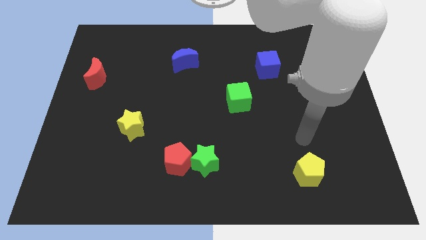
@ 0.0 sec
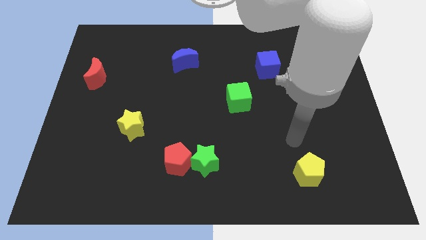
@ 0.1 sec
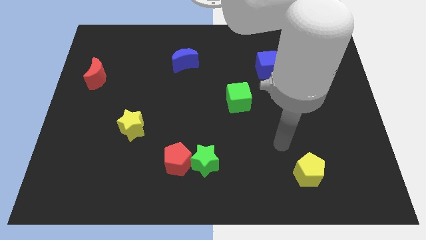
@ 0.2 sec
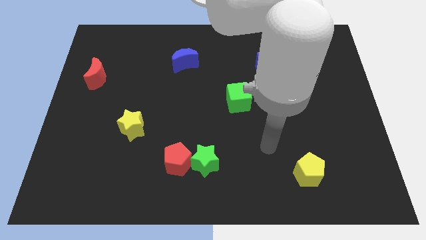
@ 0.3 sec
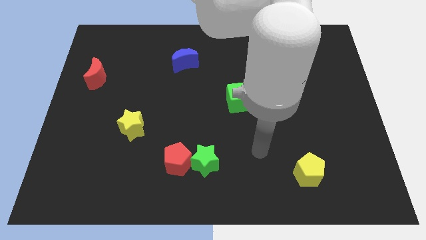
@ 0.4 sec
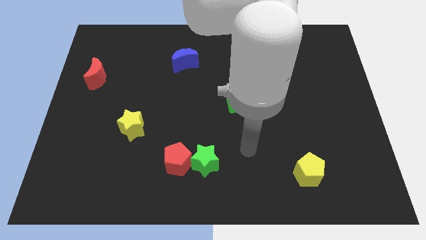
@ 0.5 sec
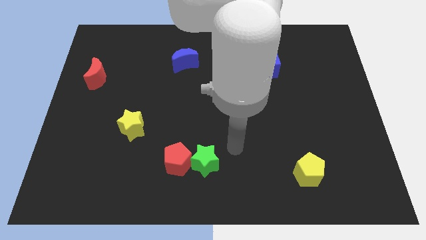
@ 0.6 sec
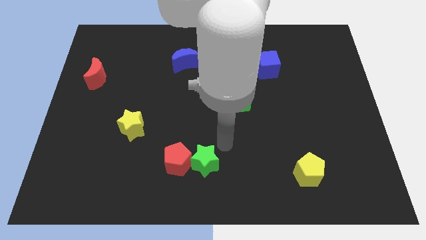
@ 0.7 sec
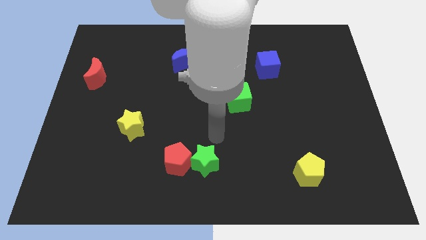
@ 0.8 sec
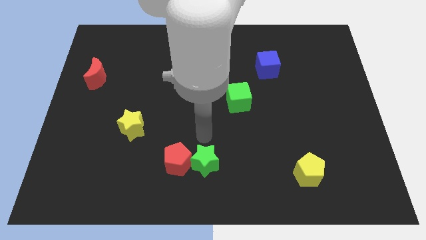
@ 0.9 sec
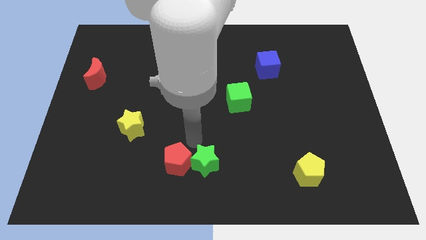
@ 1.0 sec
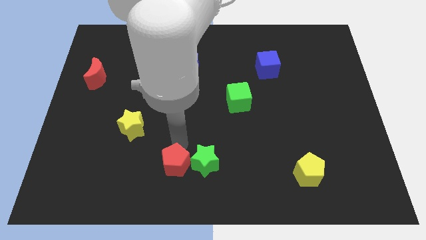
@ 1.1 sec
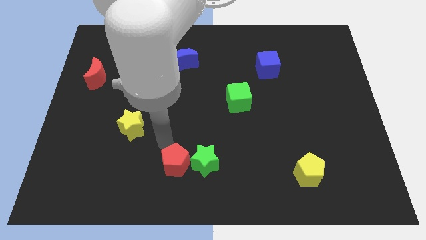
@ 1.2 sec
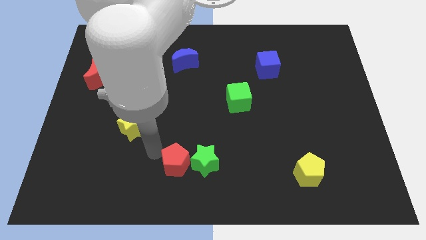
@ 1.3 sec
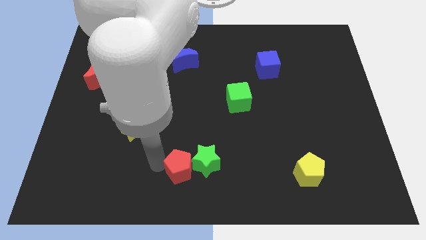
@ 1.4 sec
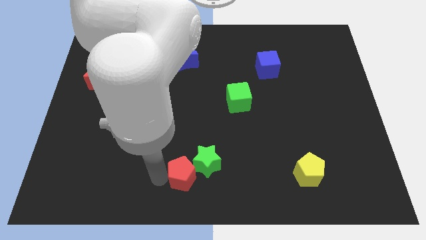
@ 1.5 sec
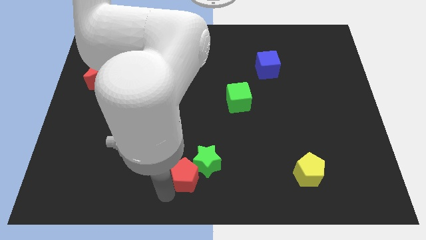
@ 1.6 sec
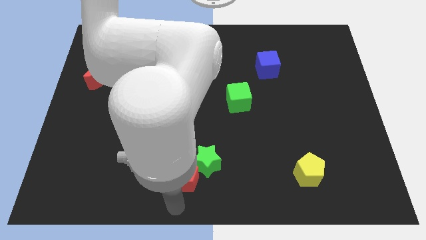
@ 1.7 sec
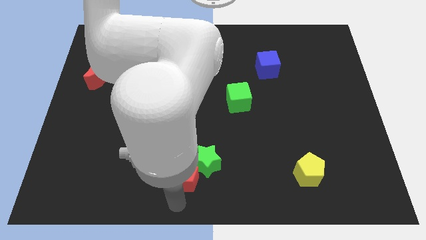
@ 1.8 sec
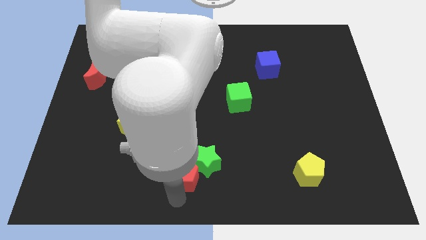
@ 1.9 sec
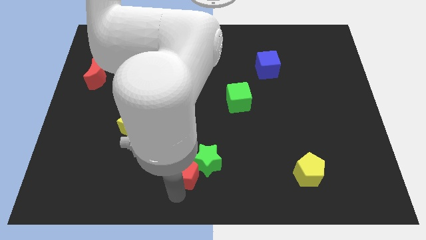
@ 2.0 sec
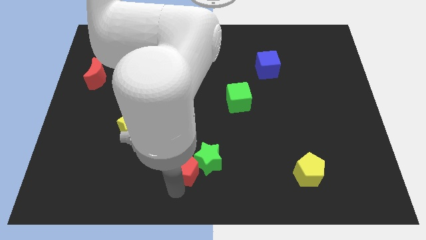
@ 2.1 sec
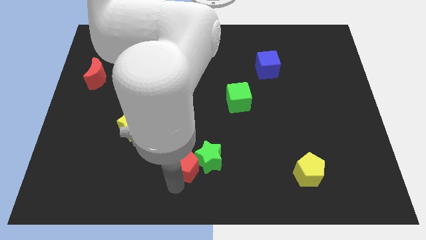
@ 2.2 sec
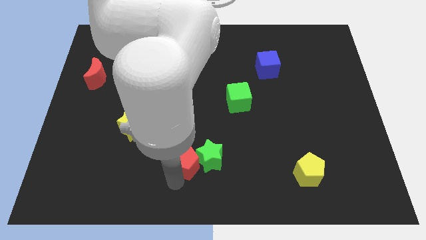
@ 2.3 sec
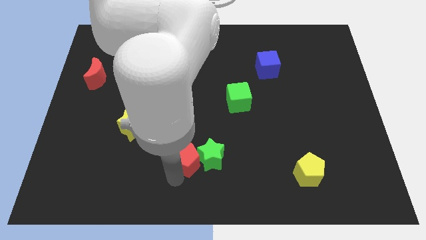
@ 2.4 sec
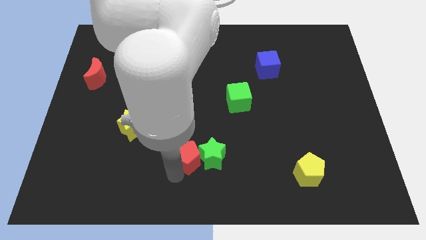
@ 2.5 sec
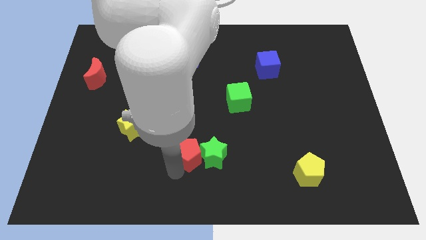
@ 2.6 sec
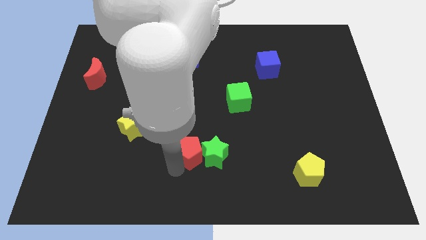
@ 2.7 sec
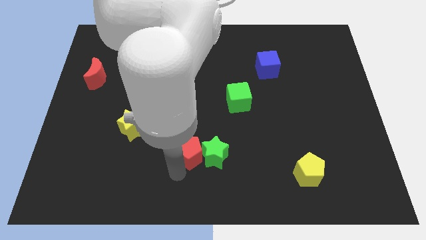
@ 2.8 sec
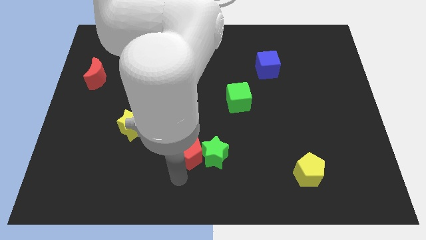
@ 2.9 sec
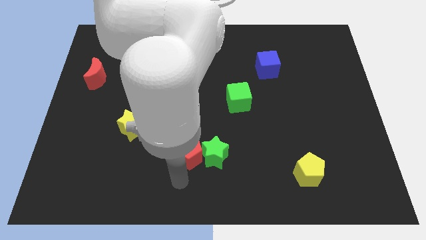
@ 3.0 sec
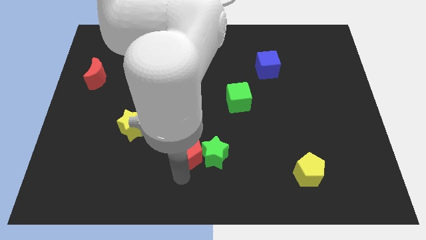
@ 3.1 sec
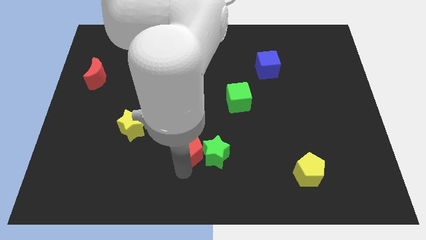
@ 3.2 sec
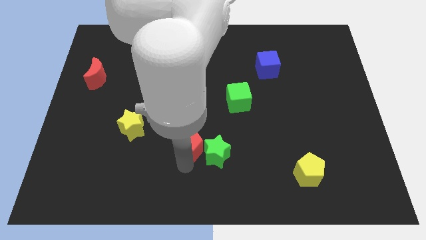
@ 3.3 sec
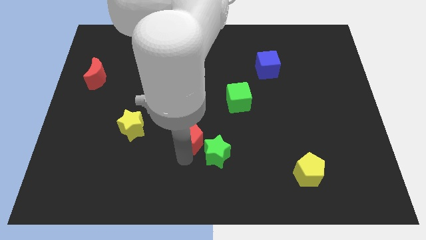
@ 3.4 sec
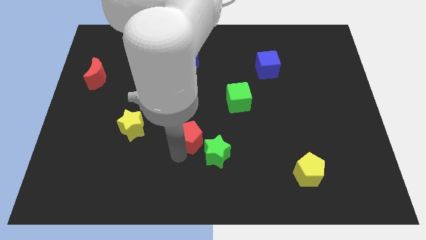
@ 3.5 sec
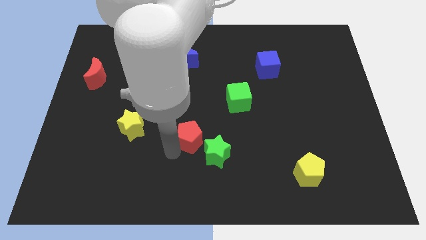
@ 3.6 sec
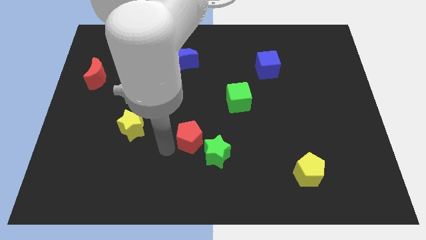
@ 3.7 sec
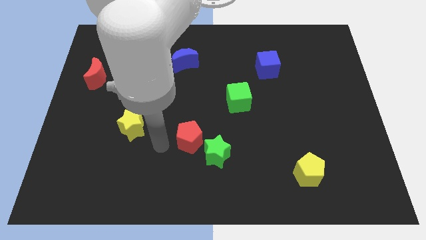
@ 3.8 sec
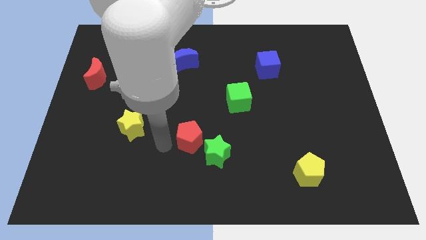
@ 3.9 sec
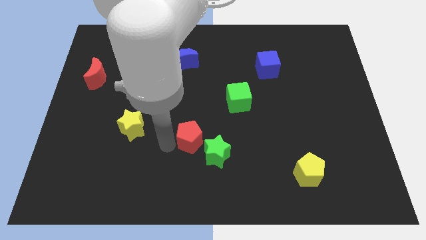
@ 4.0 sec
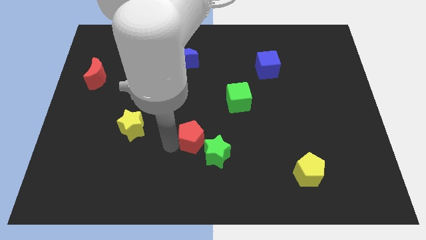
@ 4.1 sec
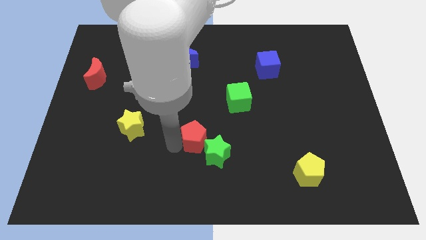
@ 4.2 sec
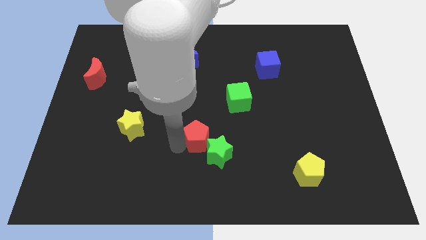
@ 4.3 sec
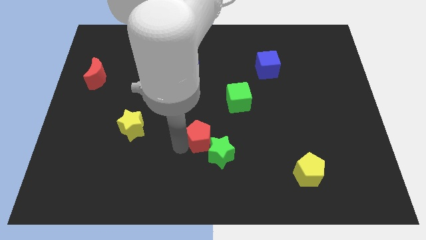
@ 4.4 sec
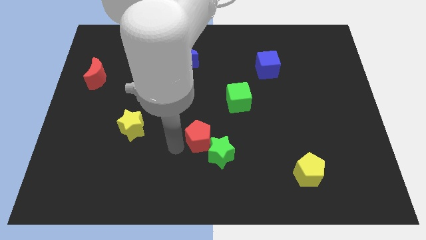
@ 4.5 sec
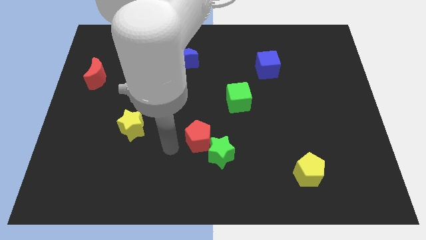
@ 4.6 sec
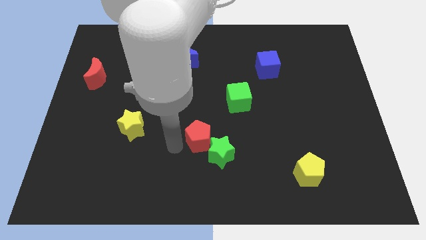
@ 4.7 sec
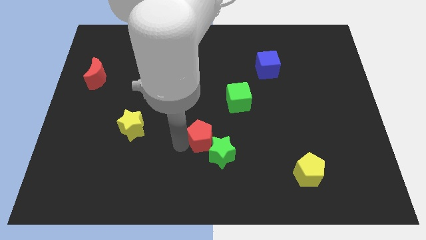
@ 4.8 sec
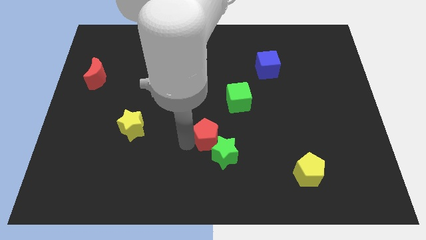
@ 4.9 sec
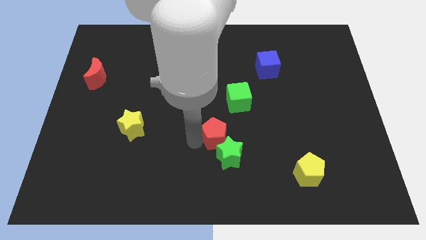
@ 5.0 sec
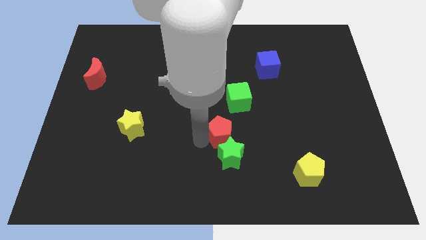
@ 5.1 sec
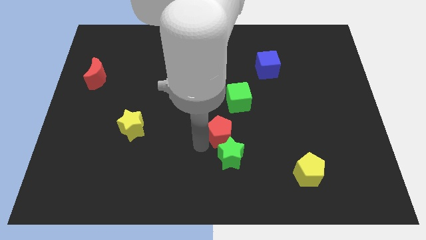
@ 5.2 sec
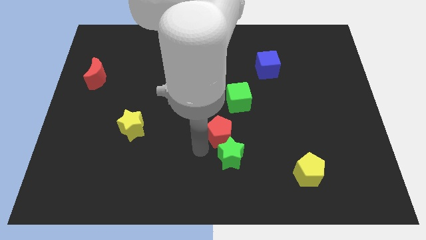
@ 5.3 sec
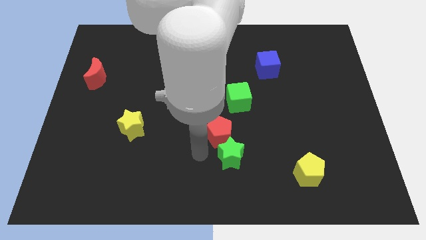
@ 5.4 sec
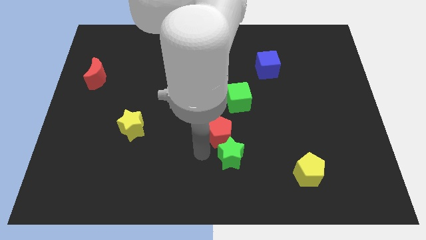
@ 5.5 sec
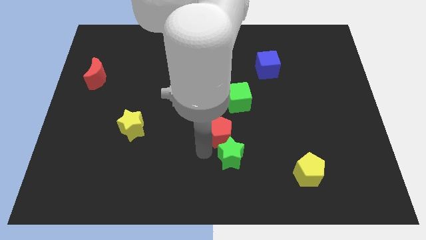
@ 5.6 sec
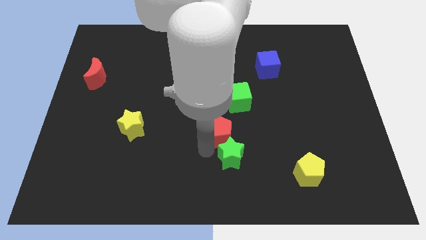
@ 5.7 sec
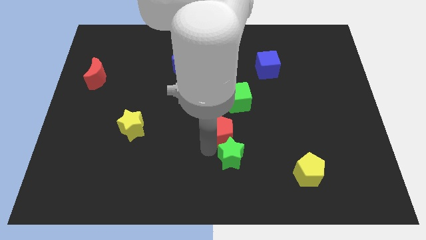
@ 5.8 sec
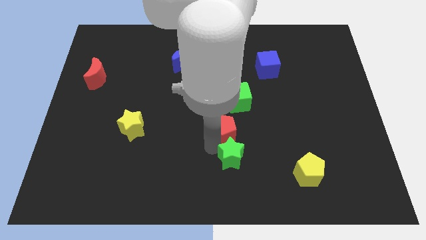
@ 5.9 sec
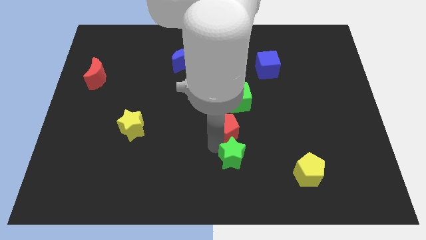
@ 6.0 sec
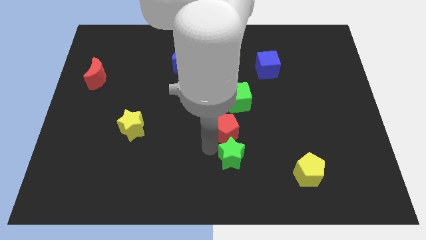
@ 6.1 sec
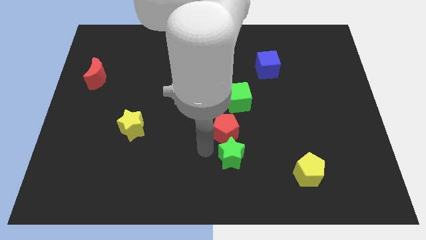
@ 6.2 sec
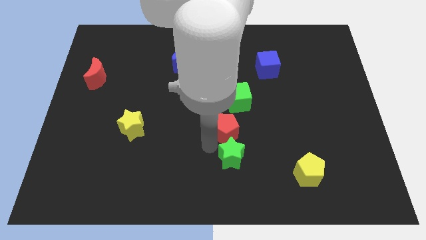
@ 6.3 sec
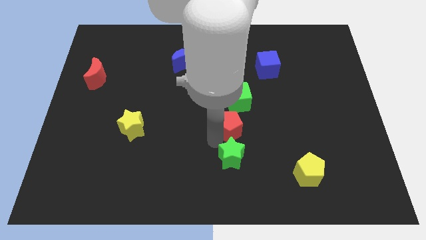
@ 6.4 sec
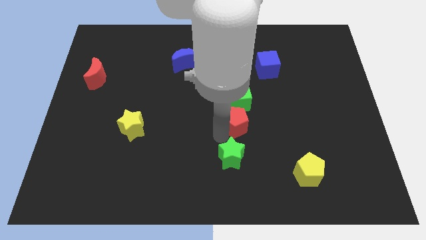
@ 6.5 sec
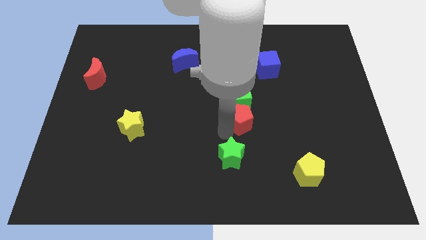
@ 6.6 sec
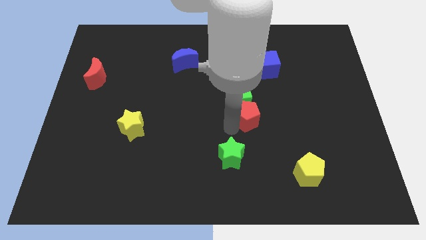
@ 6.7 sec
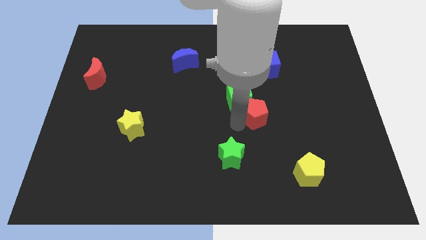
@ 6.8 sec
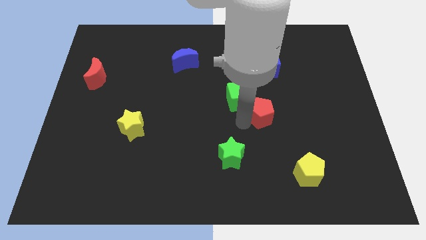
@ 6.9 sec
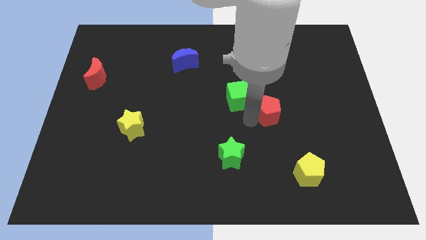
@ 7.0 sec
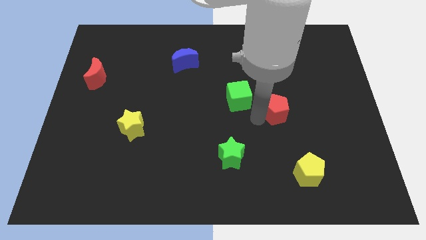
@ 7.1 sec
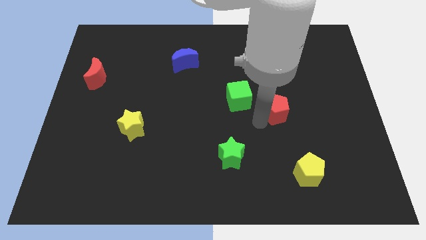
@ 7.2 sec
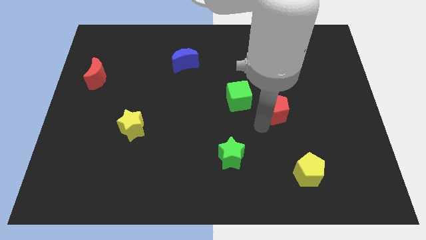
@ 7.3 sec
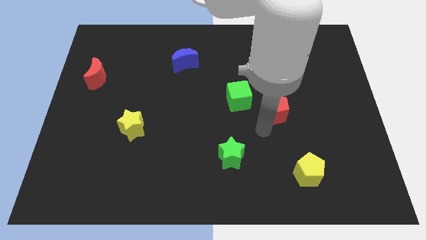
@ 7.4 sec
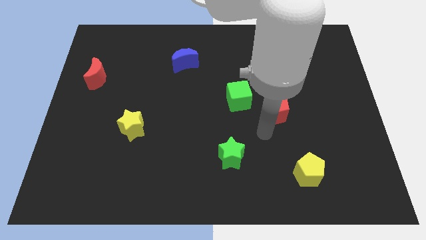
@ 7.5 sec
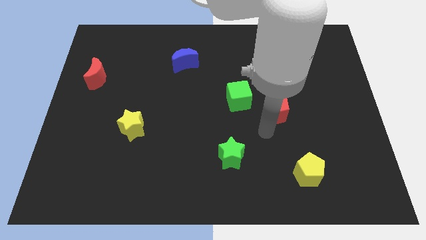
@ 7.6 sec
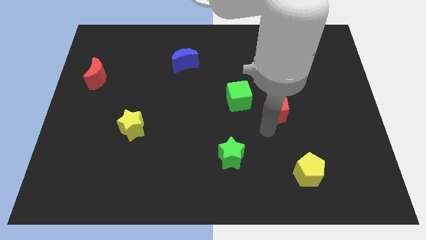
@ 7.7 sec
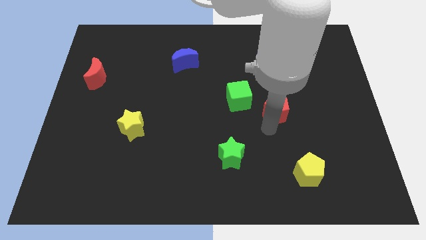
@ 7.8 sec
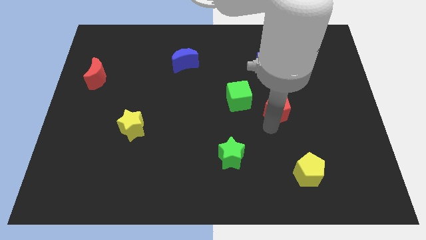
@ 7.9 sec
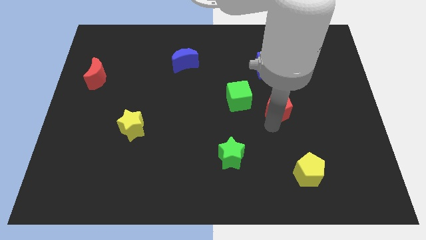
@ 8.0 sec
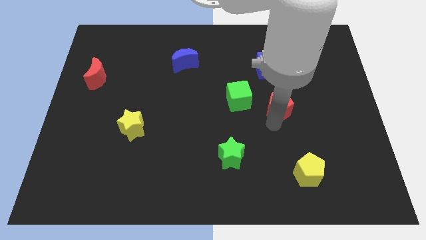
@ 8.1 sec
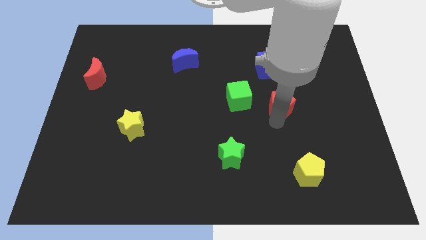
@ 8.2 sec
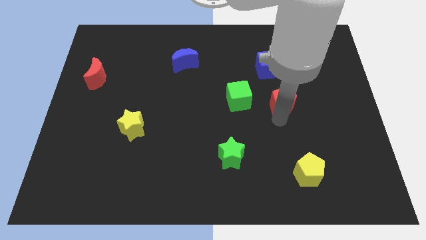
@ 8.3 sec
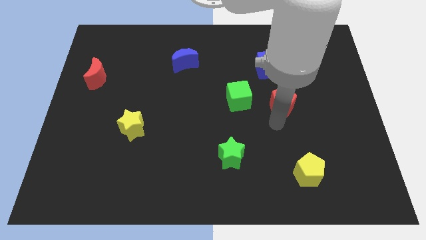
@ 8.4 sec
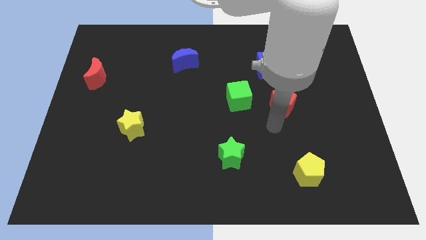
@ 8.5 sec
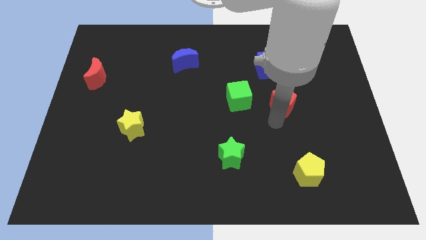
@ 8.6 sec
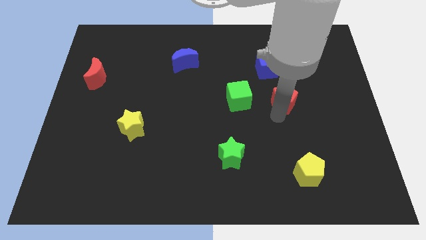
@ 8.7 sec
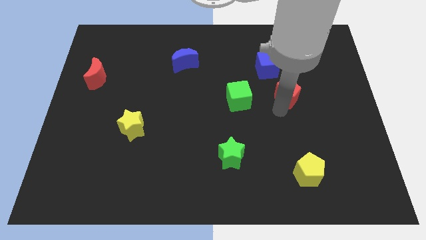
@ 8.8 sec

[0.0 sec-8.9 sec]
put the red pentagon to the bottom right side of the blue cube
